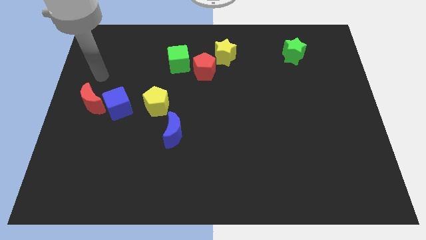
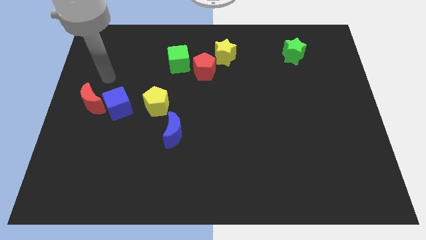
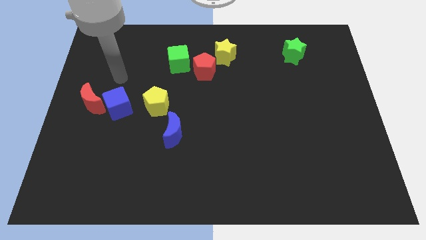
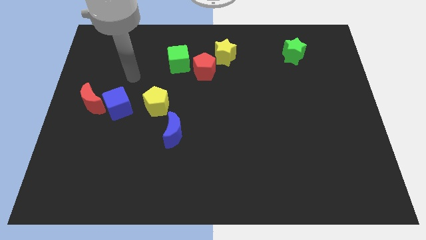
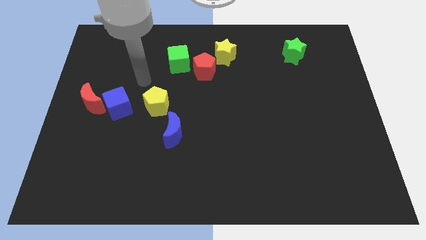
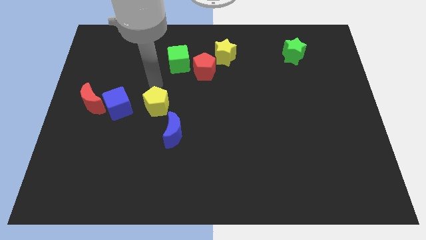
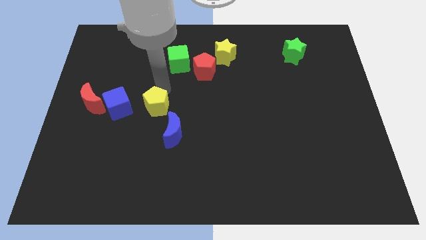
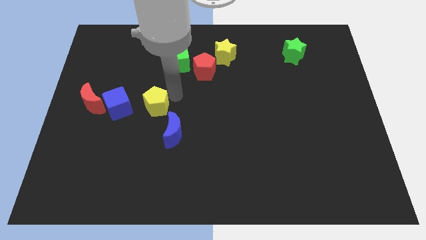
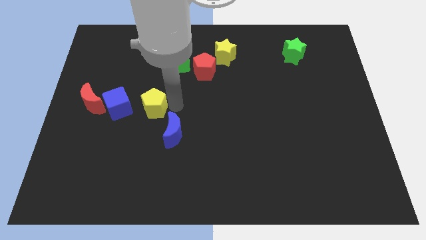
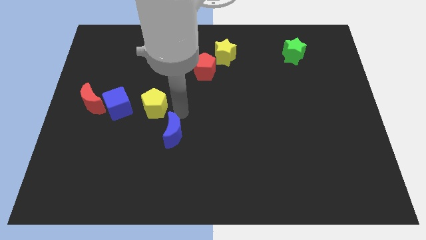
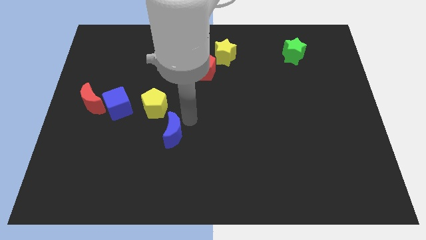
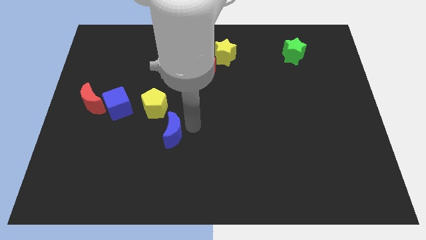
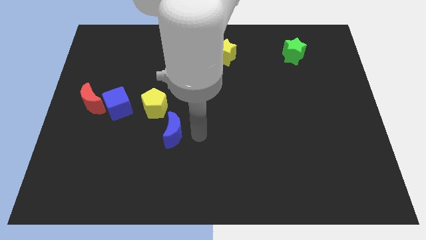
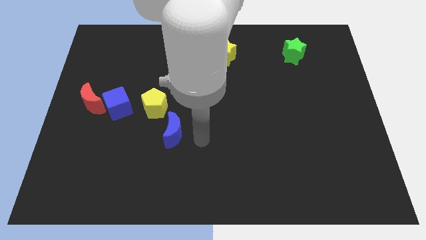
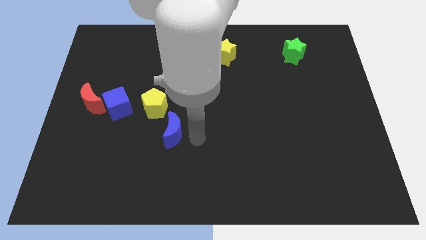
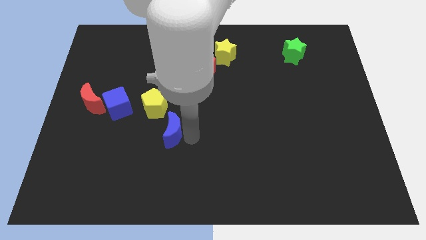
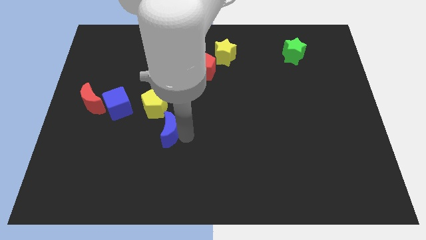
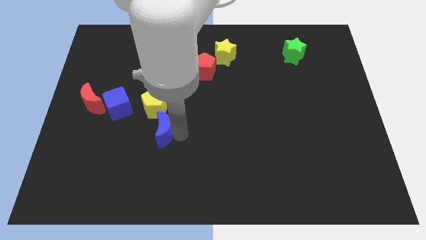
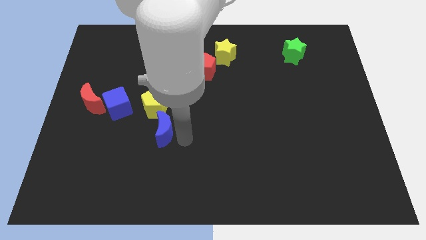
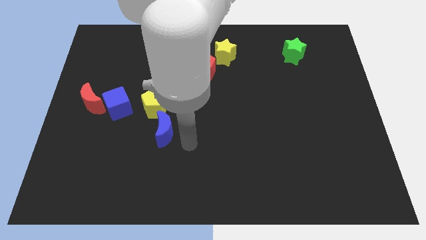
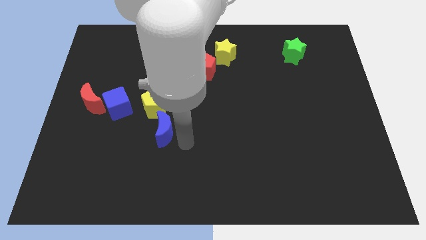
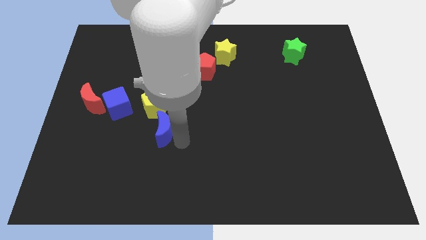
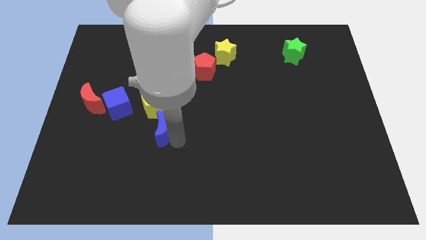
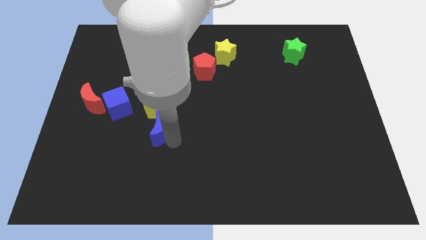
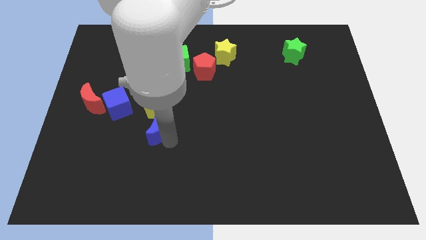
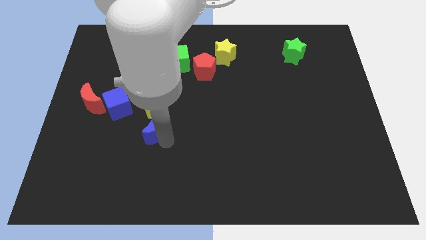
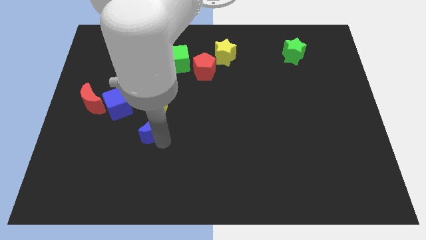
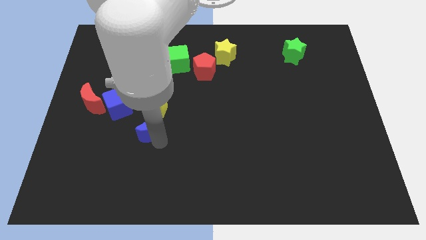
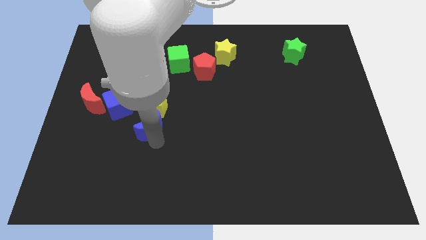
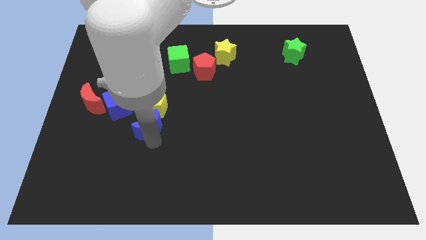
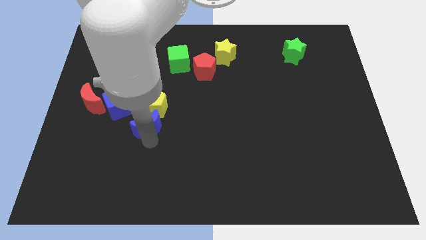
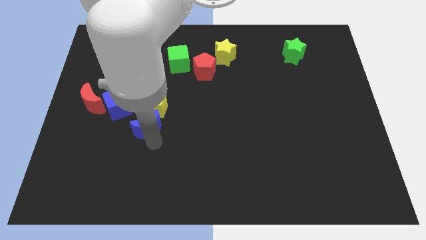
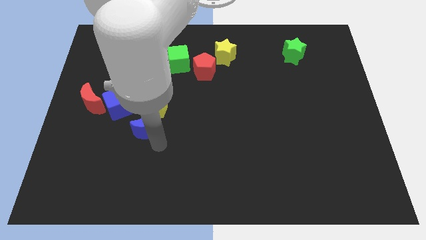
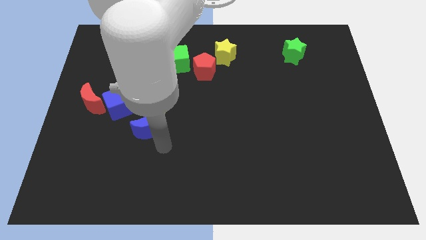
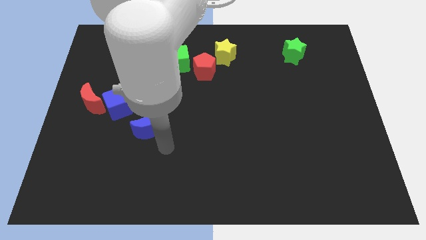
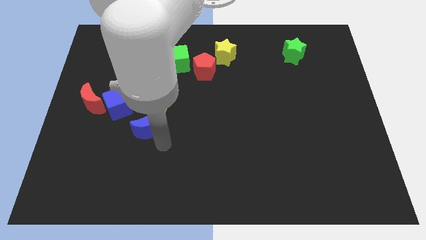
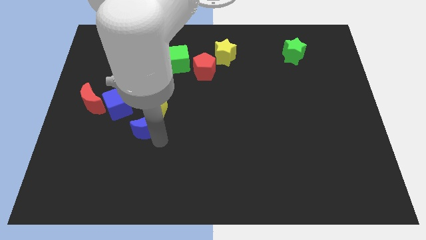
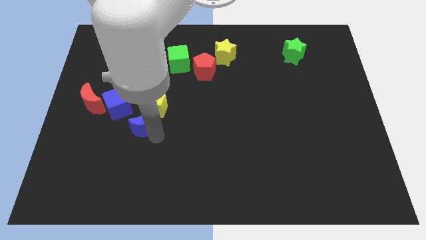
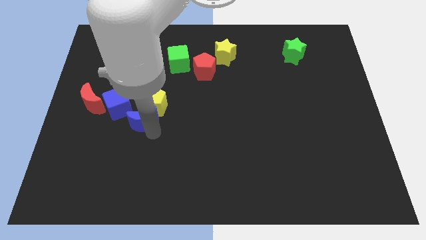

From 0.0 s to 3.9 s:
slide the blue moon diagonally up and to the left a little

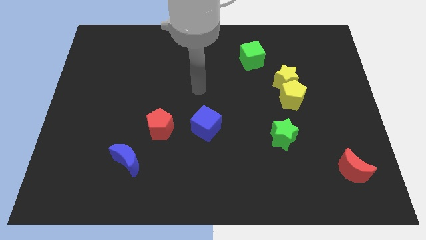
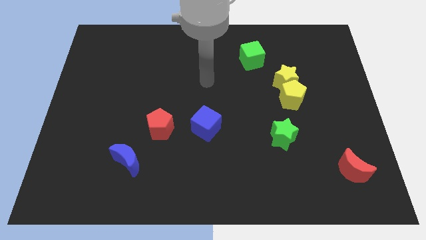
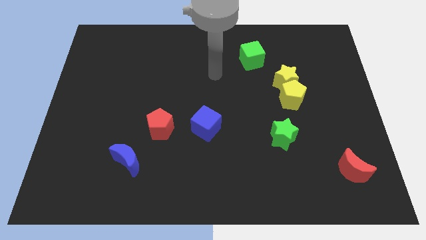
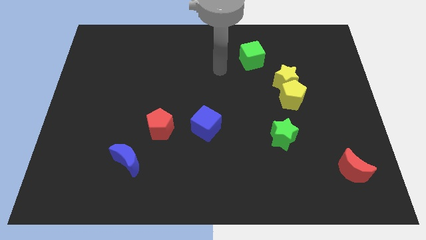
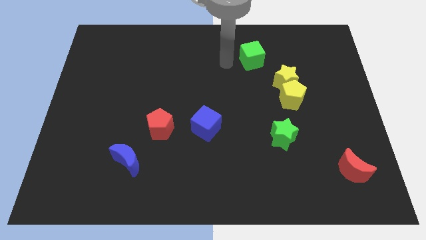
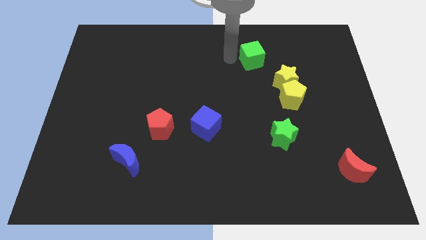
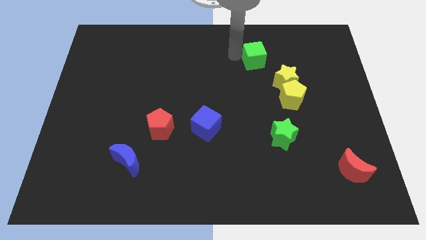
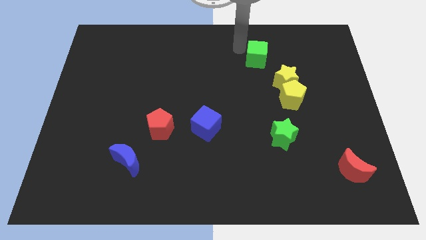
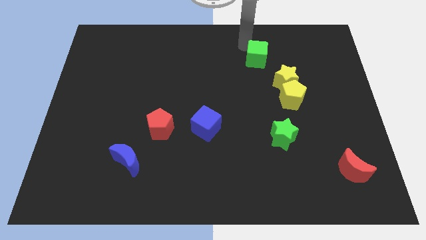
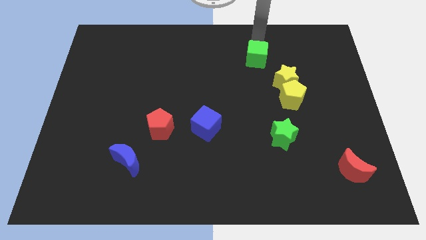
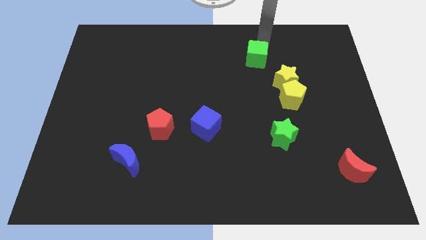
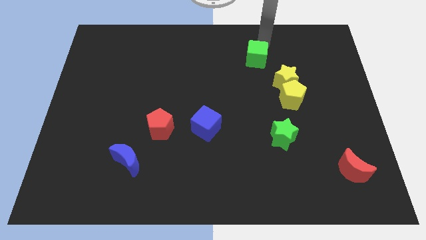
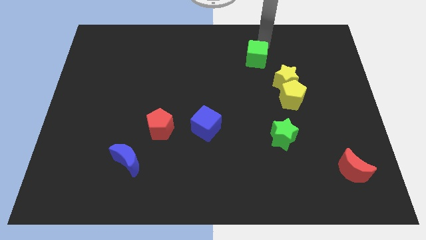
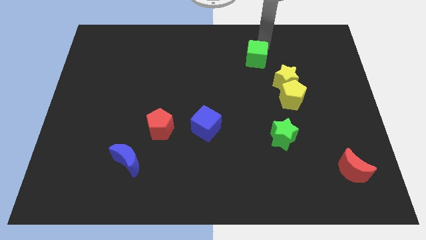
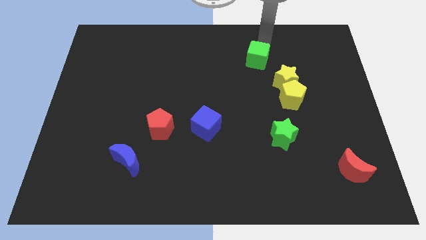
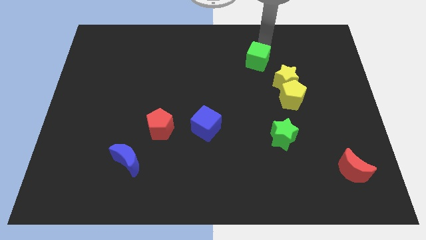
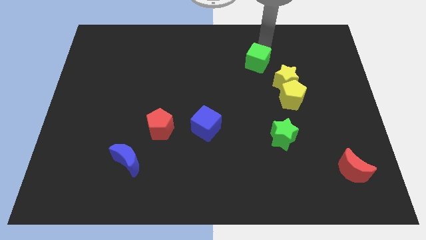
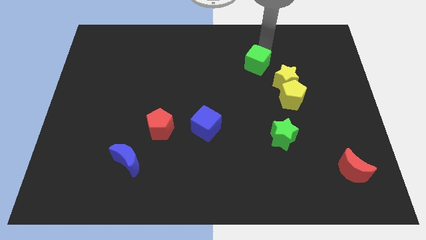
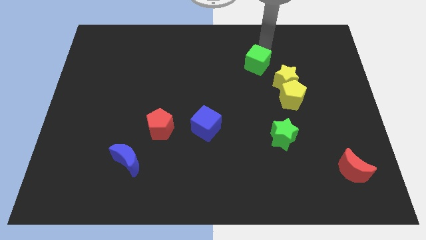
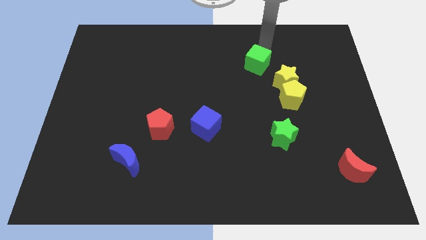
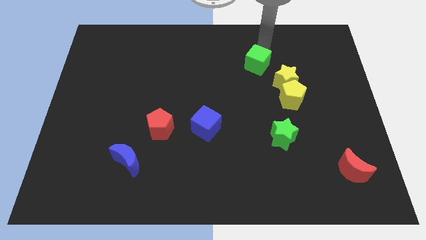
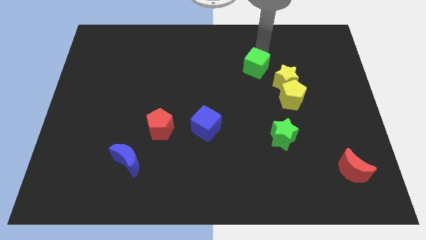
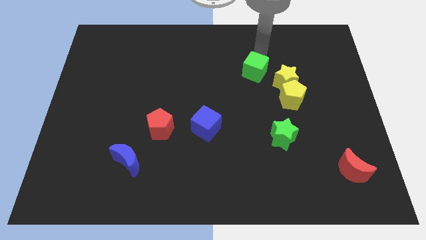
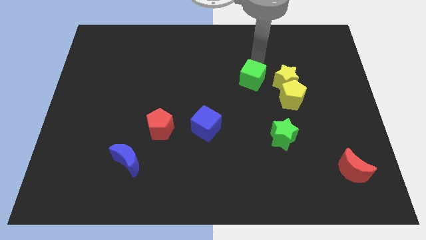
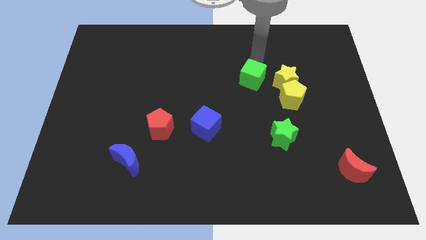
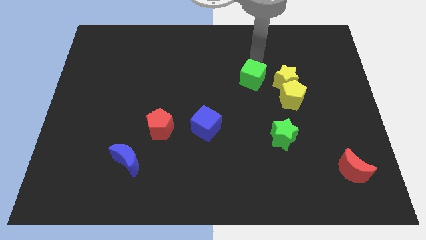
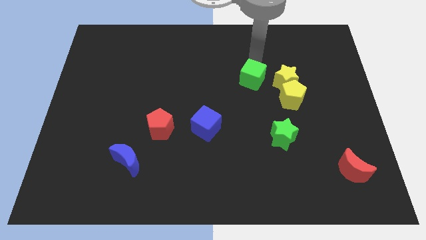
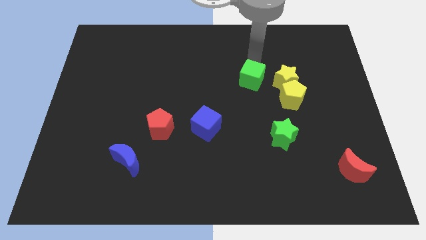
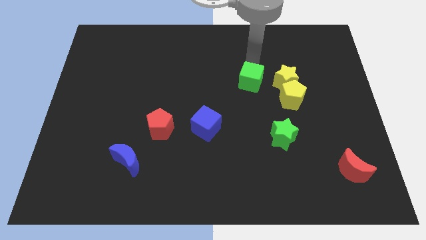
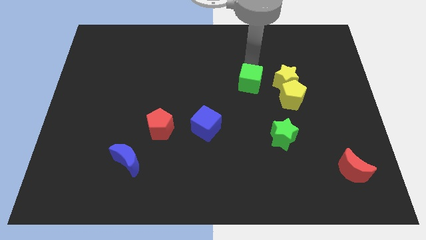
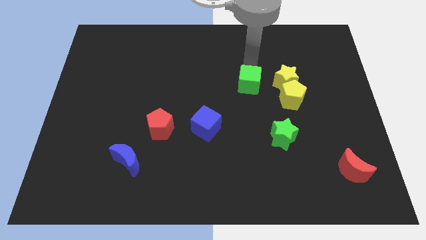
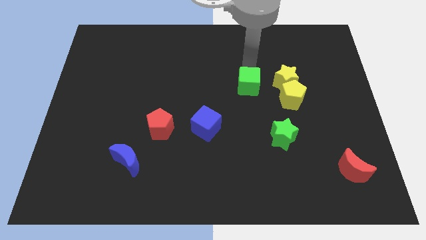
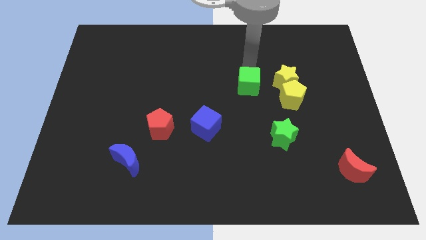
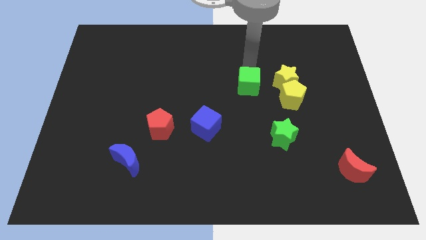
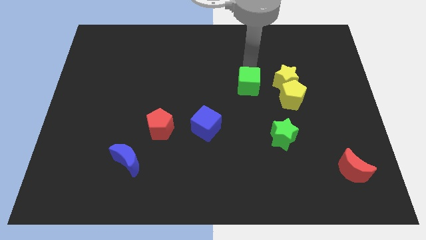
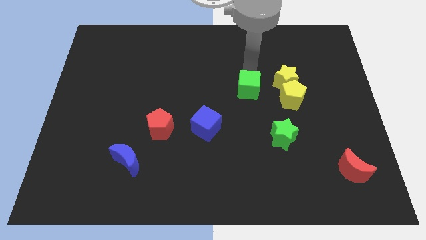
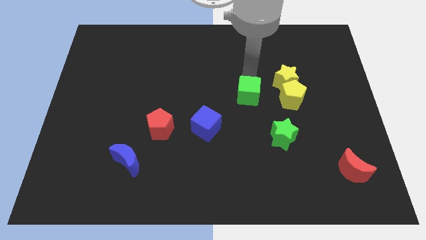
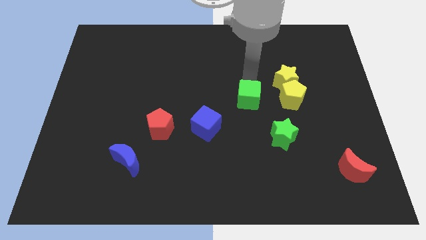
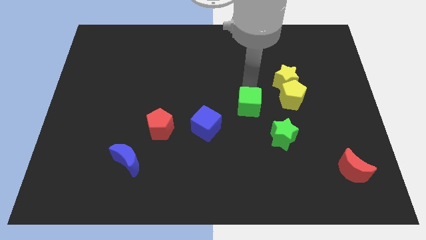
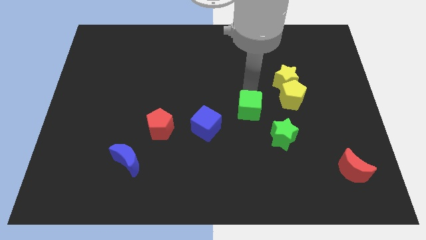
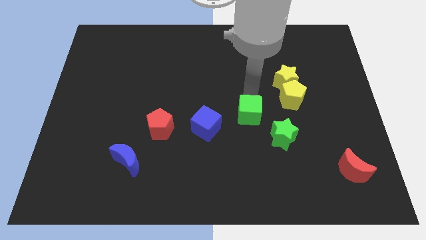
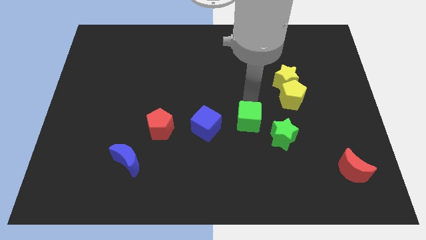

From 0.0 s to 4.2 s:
push the green cube down
